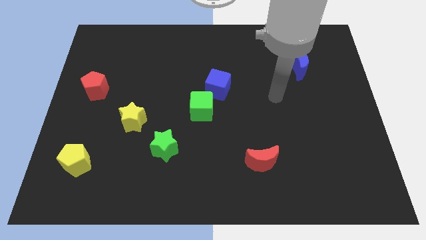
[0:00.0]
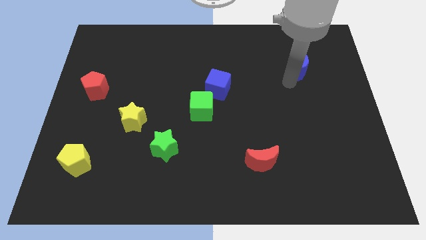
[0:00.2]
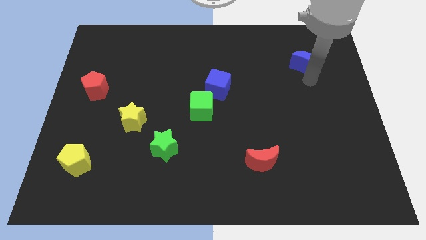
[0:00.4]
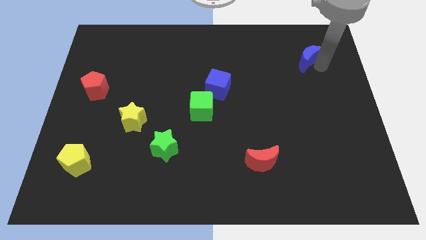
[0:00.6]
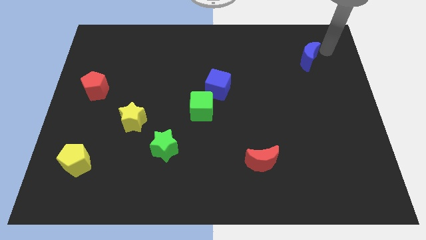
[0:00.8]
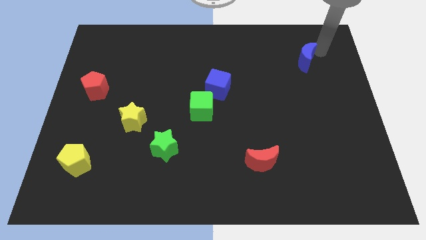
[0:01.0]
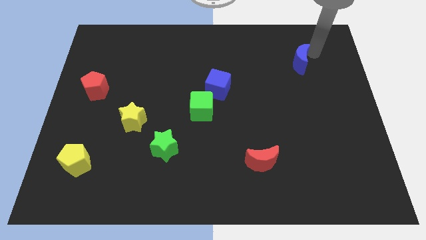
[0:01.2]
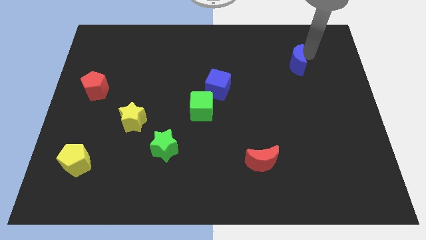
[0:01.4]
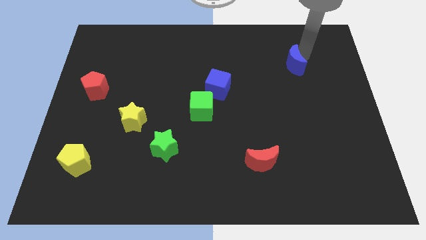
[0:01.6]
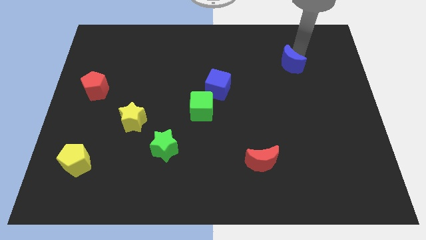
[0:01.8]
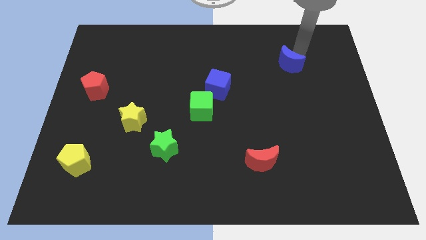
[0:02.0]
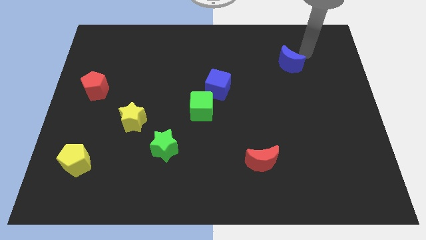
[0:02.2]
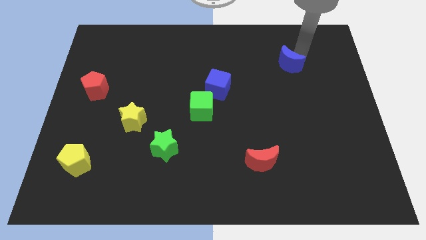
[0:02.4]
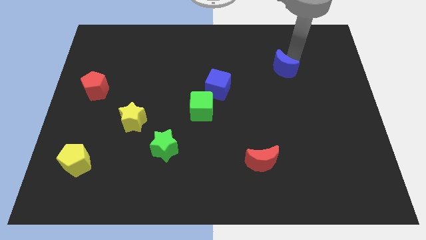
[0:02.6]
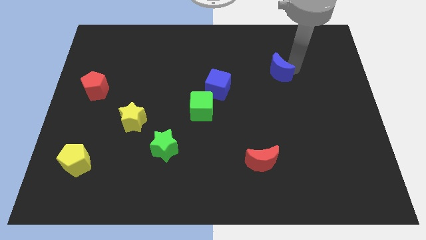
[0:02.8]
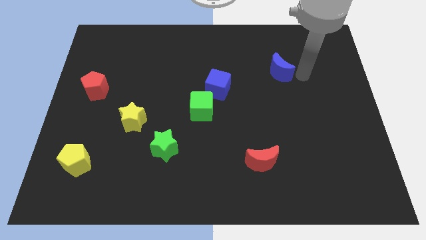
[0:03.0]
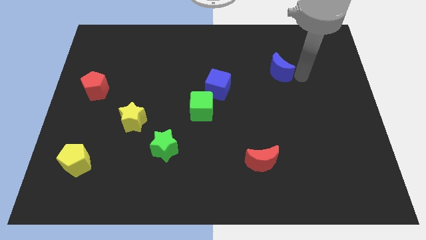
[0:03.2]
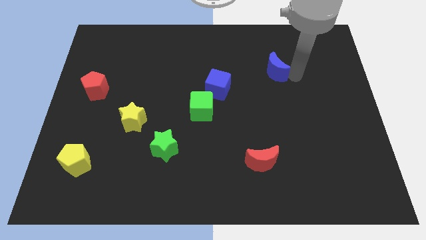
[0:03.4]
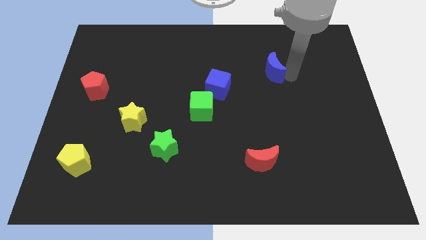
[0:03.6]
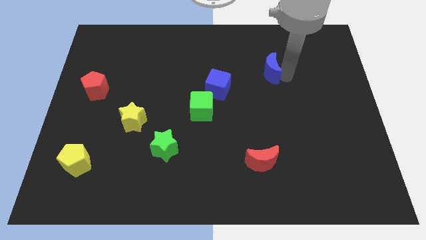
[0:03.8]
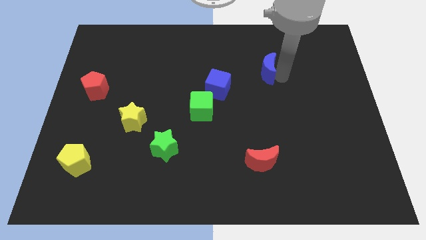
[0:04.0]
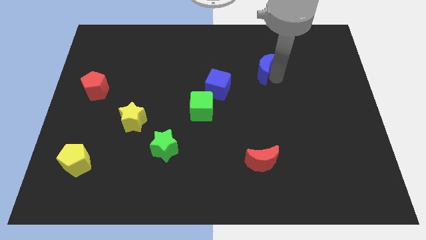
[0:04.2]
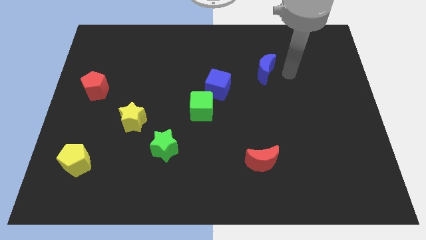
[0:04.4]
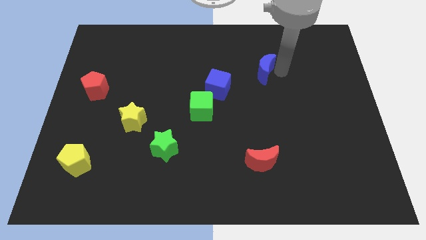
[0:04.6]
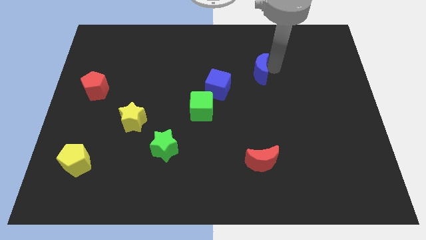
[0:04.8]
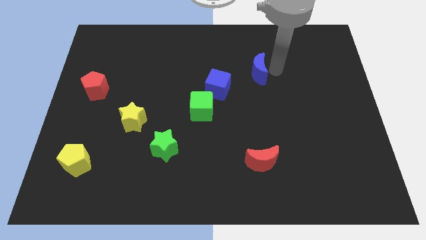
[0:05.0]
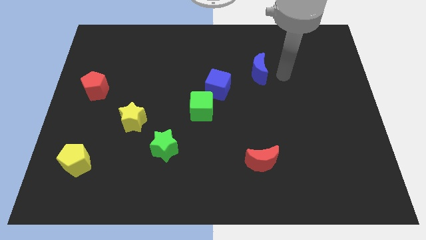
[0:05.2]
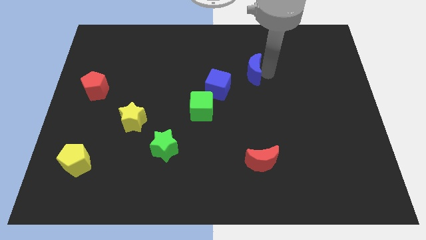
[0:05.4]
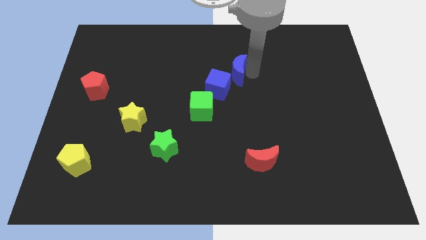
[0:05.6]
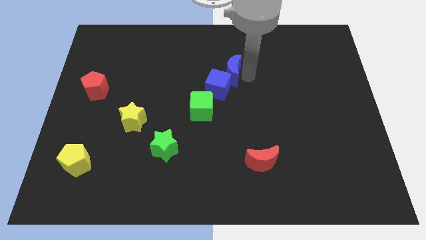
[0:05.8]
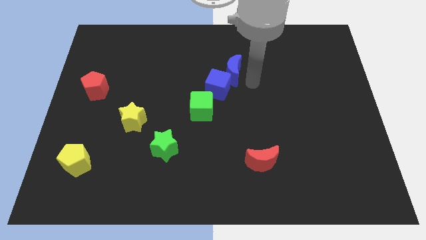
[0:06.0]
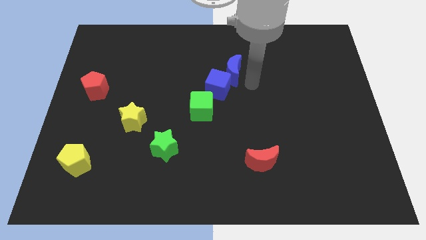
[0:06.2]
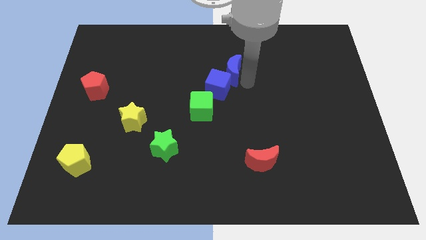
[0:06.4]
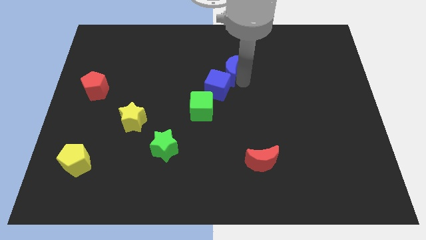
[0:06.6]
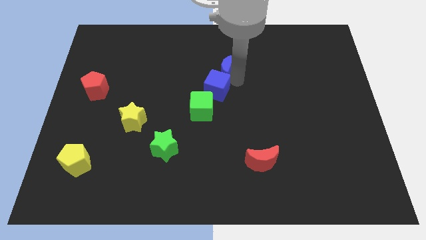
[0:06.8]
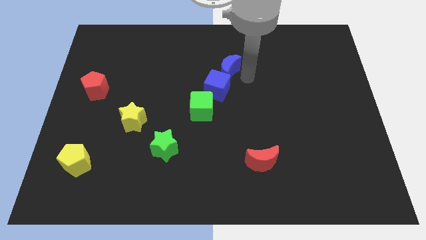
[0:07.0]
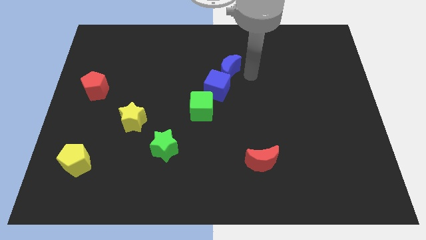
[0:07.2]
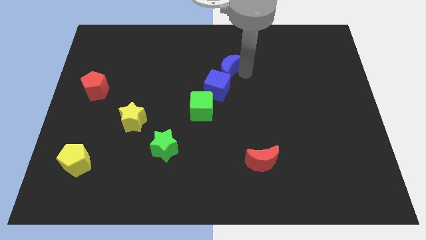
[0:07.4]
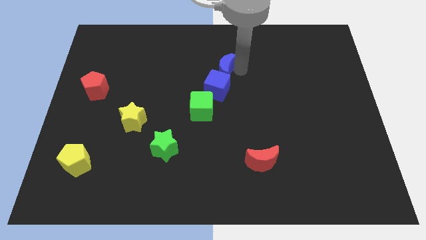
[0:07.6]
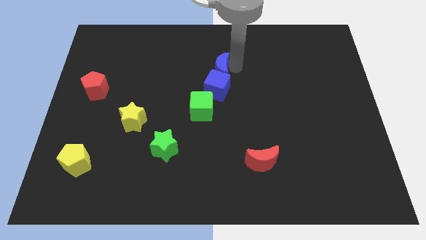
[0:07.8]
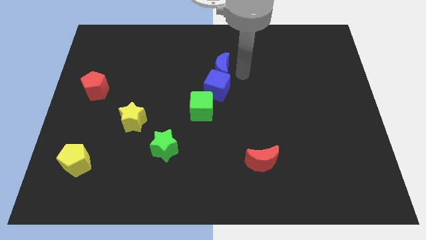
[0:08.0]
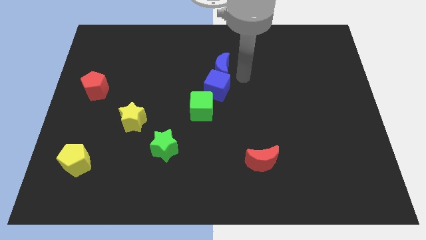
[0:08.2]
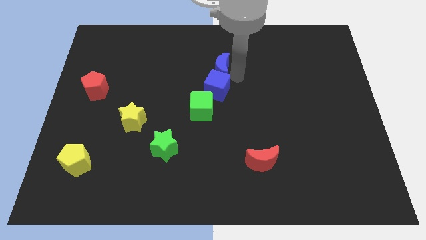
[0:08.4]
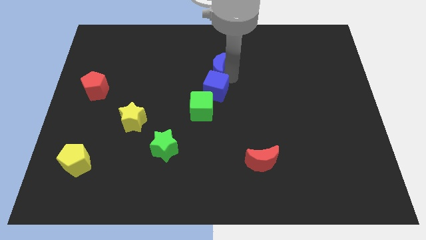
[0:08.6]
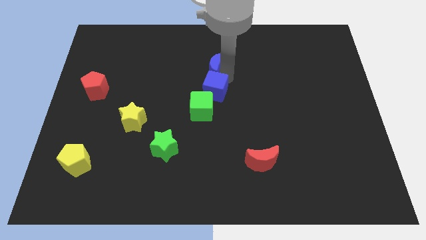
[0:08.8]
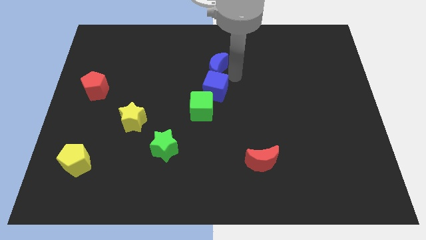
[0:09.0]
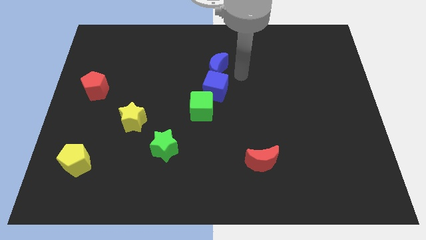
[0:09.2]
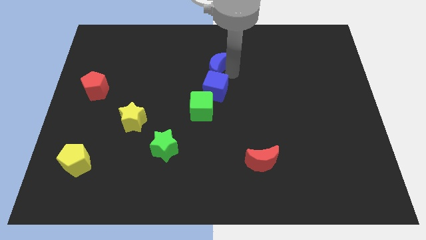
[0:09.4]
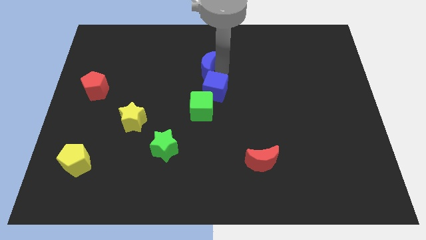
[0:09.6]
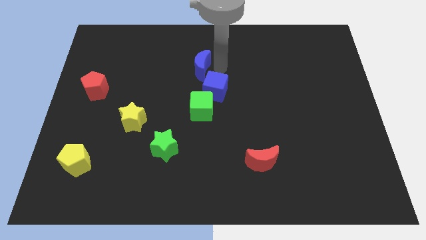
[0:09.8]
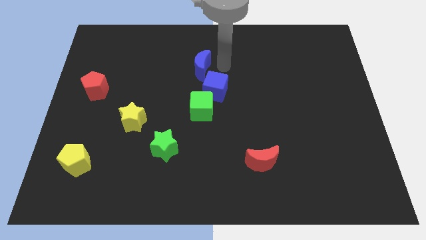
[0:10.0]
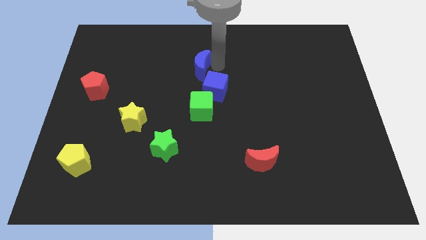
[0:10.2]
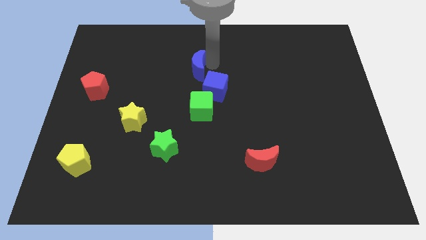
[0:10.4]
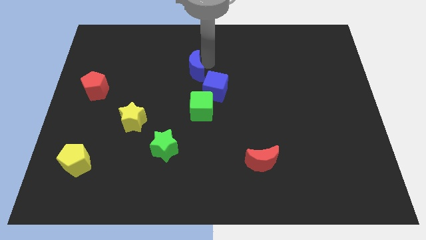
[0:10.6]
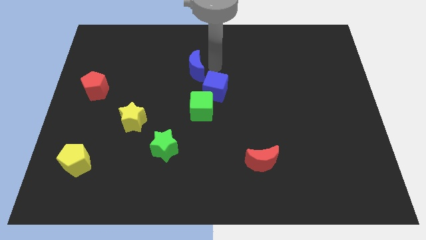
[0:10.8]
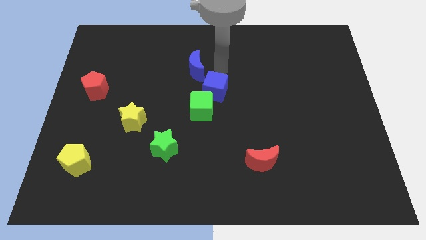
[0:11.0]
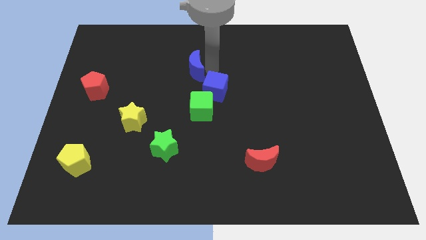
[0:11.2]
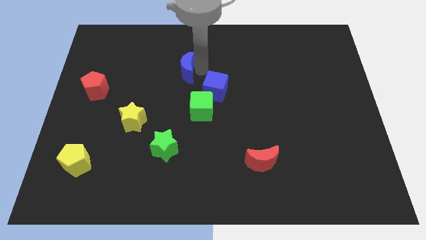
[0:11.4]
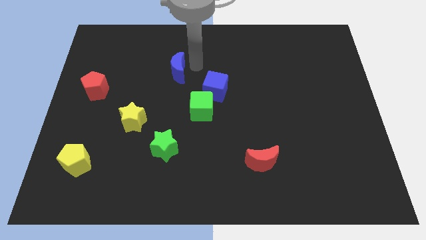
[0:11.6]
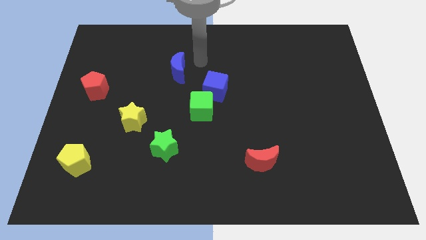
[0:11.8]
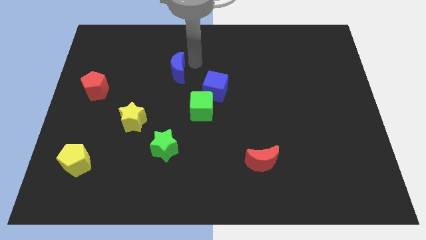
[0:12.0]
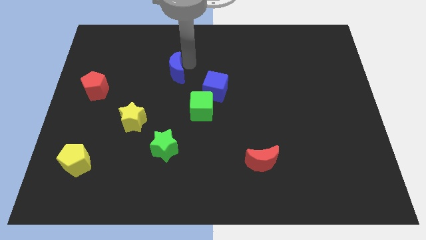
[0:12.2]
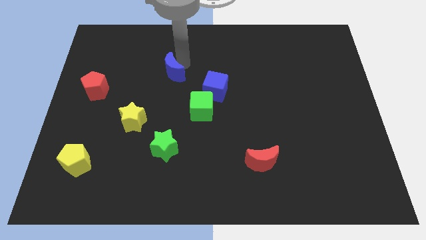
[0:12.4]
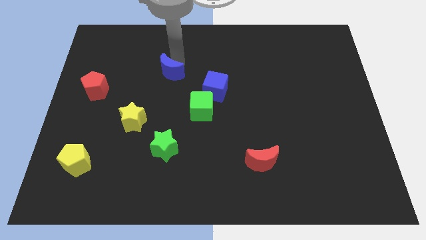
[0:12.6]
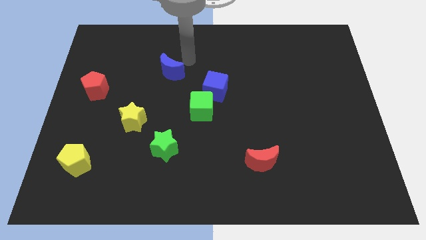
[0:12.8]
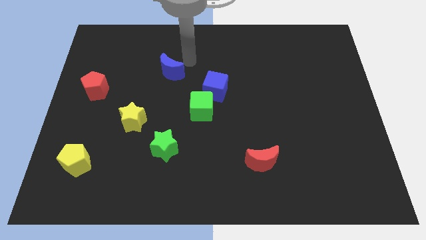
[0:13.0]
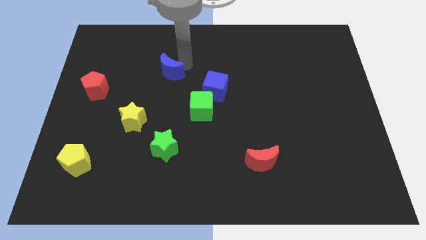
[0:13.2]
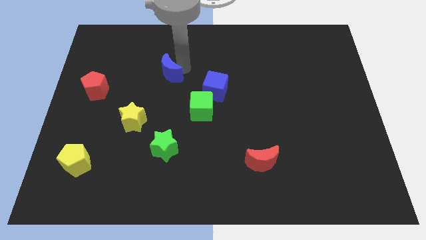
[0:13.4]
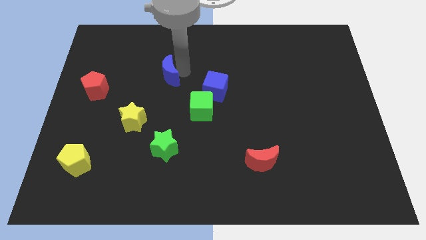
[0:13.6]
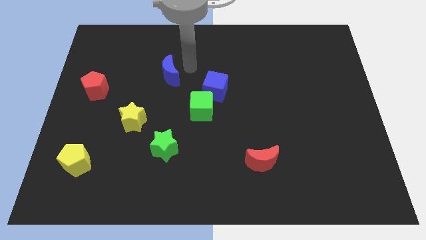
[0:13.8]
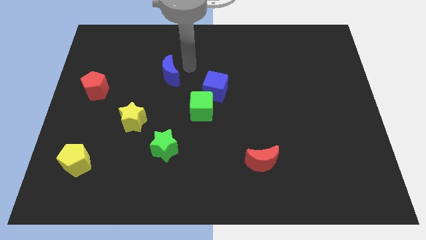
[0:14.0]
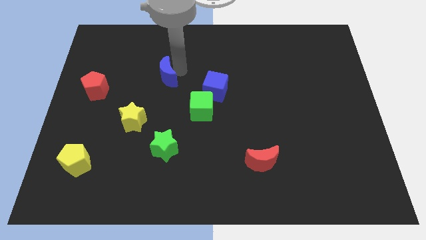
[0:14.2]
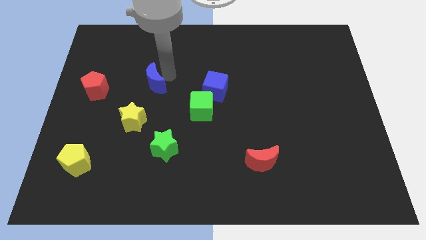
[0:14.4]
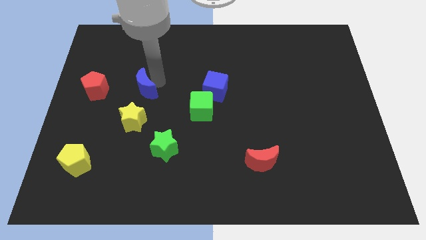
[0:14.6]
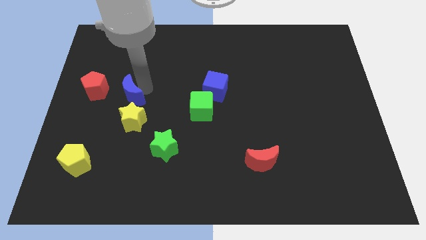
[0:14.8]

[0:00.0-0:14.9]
move the blue moon to the top left of the yellow star
